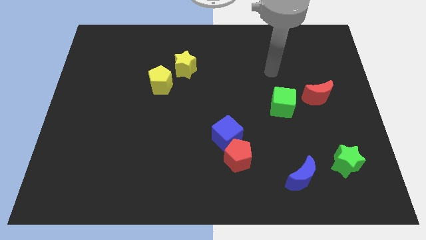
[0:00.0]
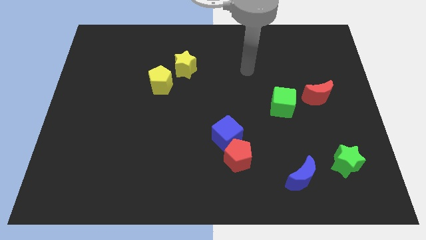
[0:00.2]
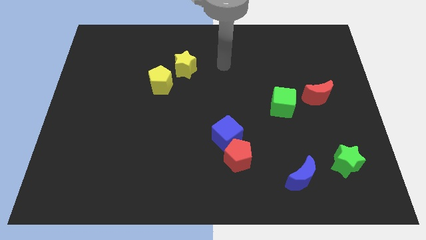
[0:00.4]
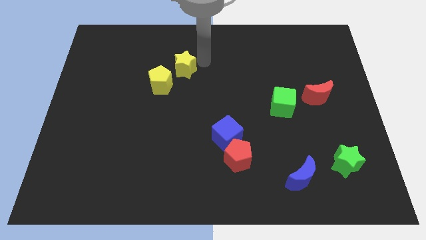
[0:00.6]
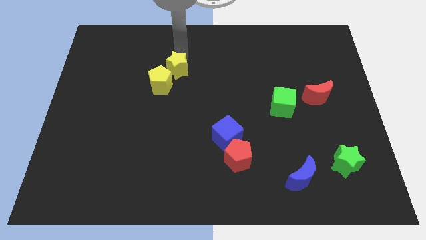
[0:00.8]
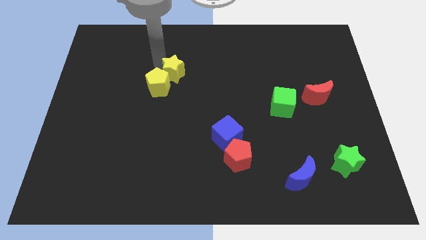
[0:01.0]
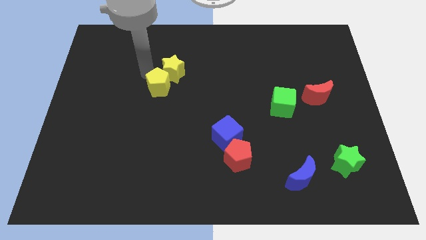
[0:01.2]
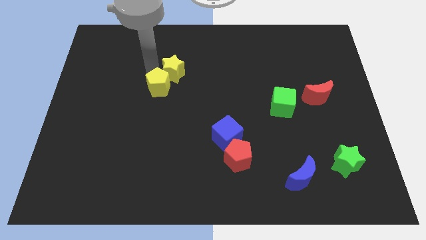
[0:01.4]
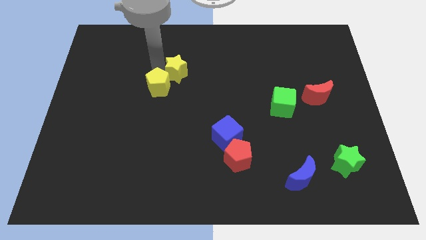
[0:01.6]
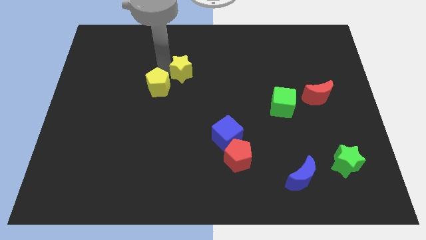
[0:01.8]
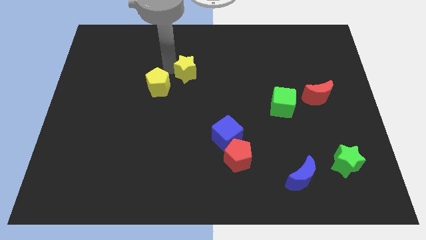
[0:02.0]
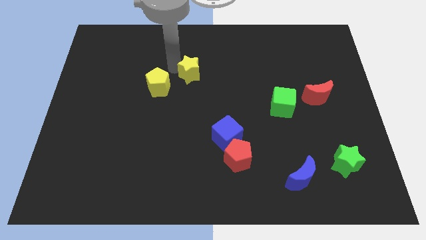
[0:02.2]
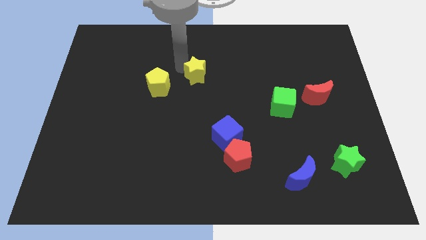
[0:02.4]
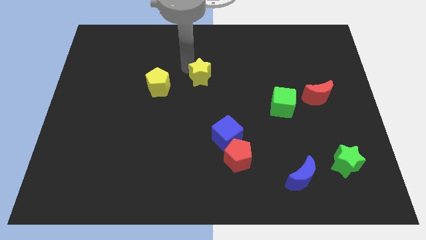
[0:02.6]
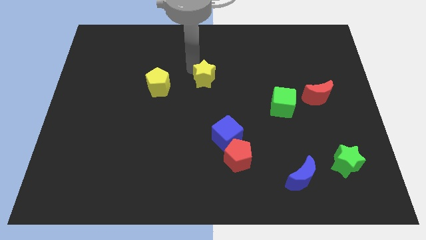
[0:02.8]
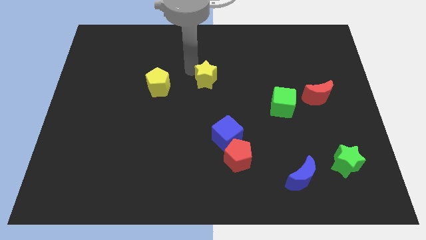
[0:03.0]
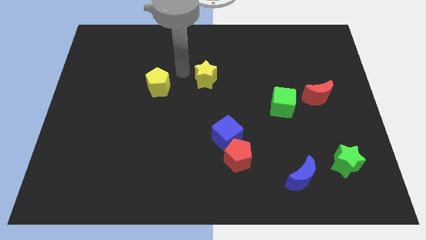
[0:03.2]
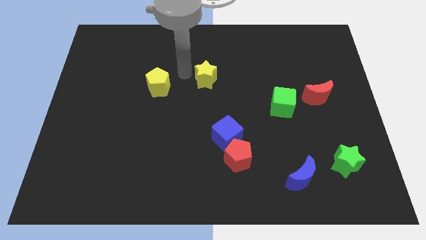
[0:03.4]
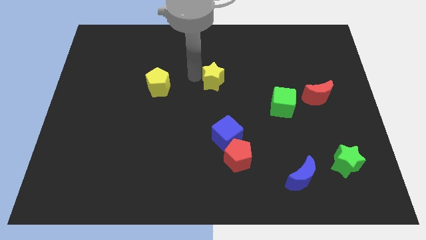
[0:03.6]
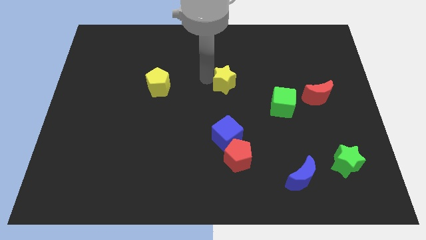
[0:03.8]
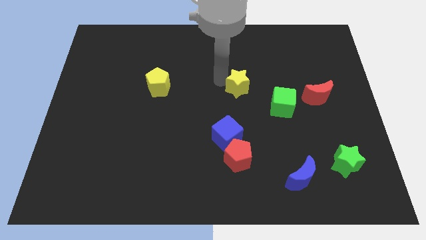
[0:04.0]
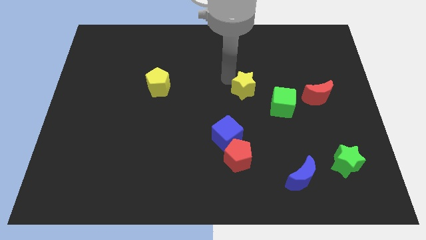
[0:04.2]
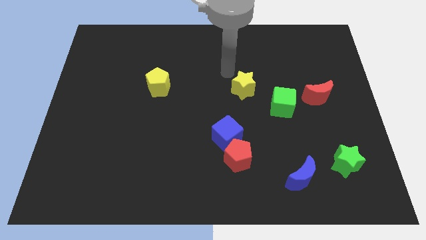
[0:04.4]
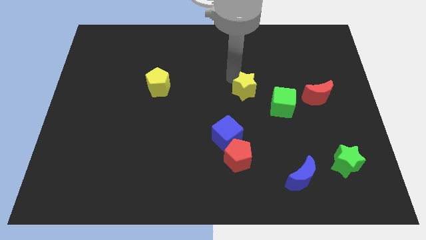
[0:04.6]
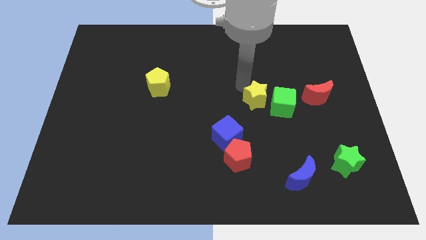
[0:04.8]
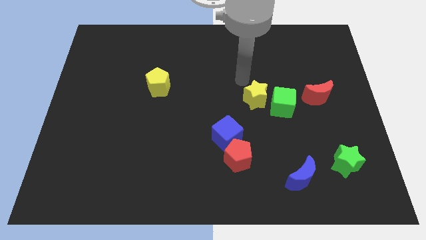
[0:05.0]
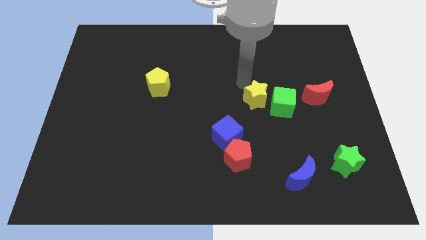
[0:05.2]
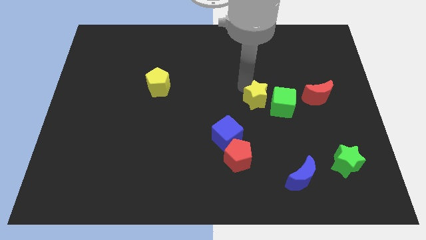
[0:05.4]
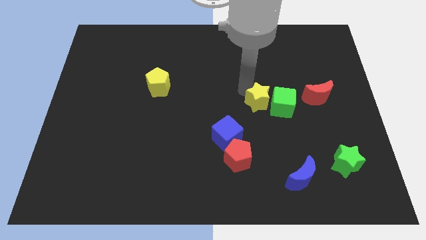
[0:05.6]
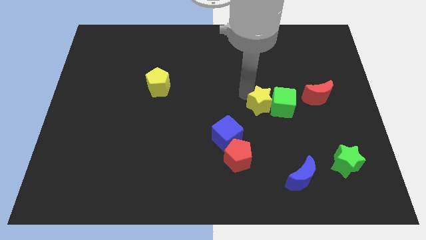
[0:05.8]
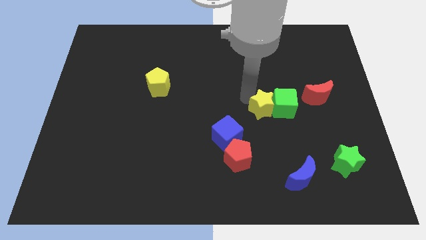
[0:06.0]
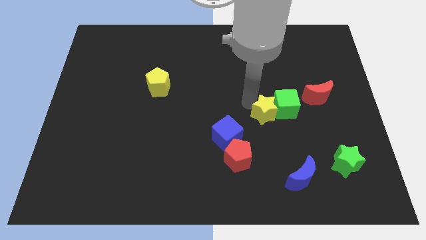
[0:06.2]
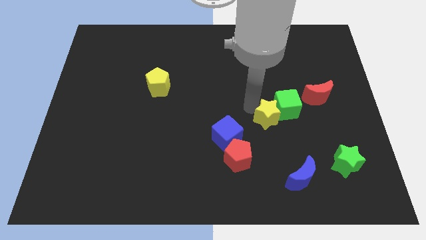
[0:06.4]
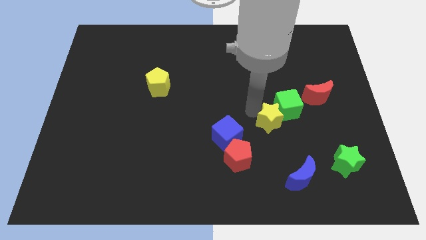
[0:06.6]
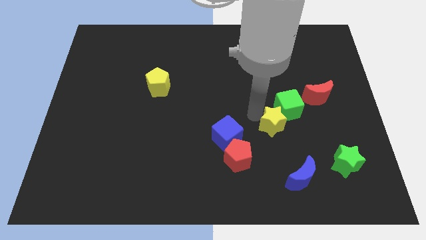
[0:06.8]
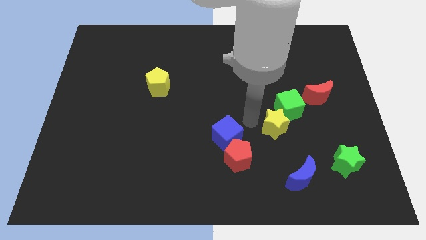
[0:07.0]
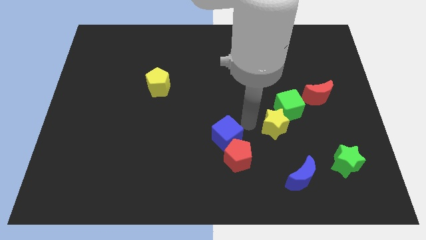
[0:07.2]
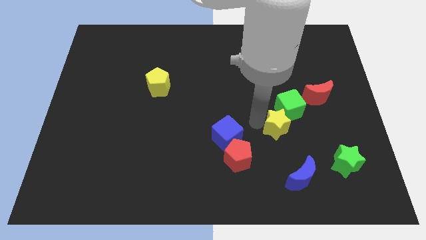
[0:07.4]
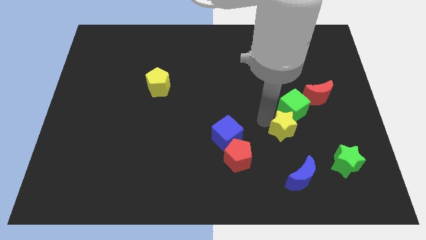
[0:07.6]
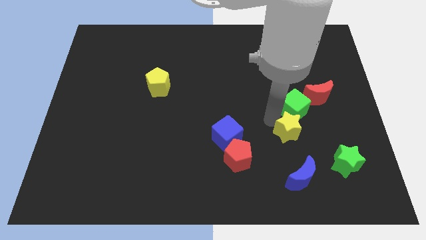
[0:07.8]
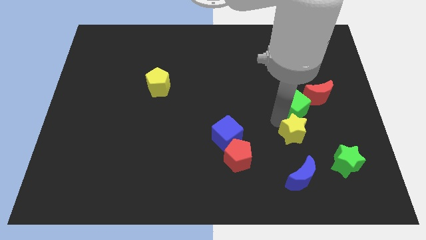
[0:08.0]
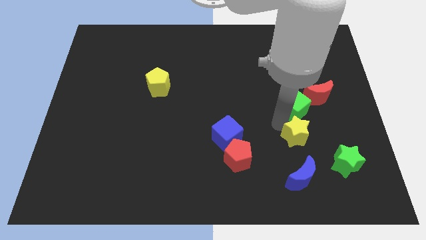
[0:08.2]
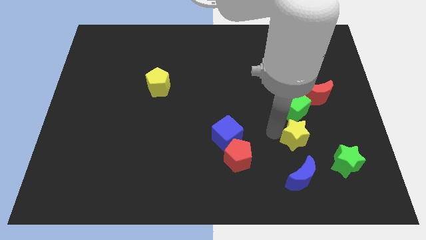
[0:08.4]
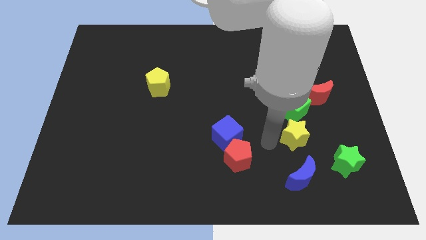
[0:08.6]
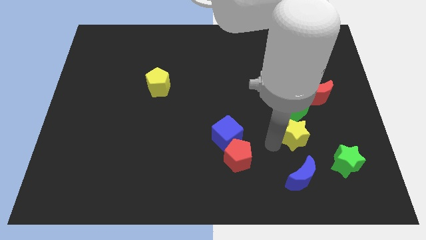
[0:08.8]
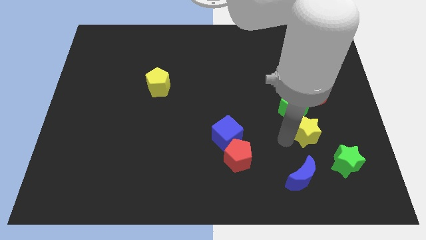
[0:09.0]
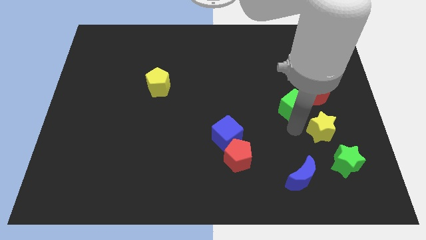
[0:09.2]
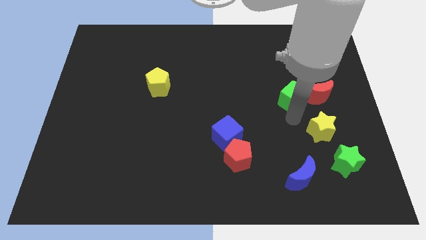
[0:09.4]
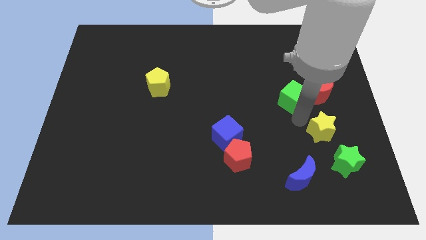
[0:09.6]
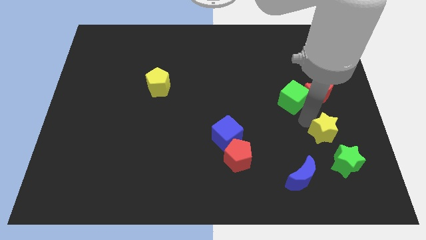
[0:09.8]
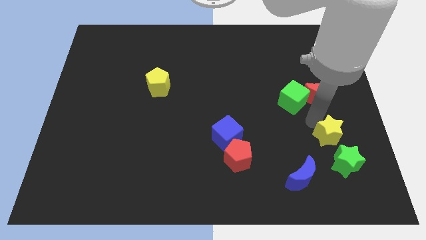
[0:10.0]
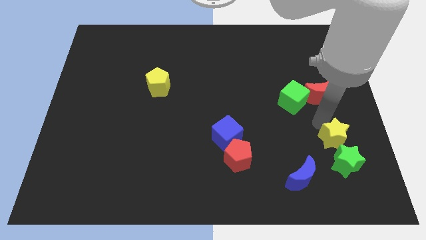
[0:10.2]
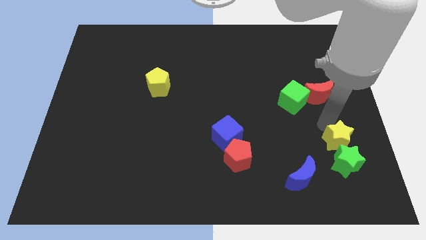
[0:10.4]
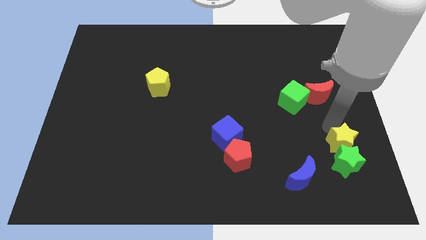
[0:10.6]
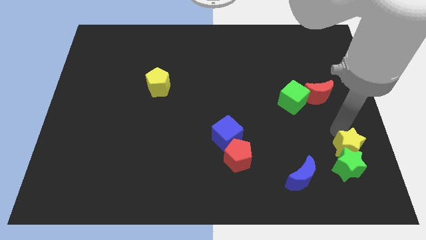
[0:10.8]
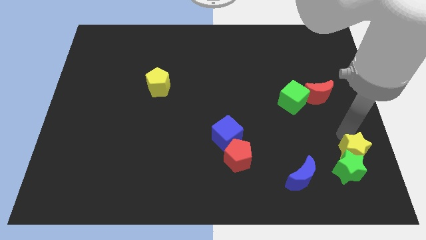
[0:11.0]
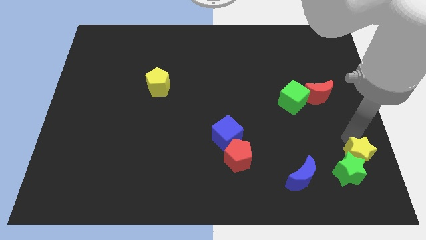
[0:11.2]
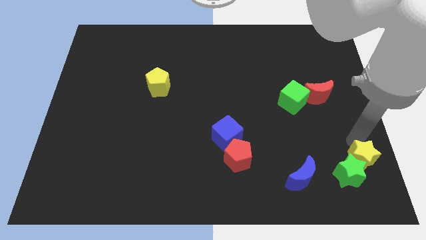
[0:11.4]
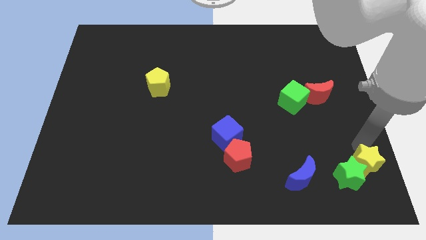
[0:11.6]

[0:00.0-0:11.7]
put the yellow star to the bottom right of the board
